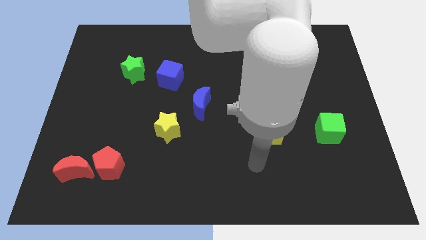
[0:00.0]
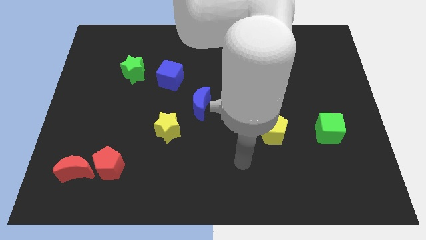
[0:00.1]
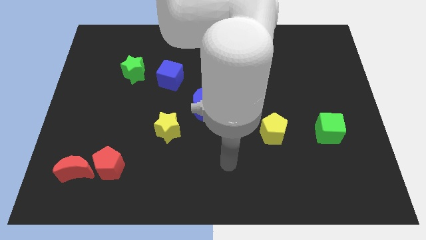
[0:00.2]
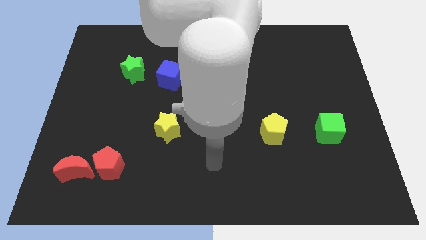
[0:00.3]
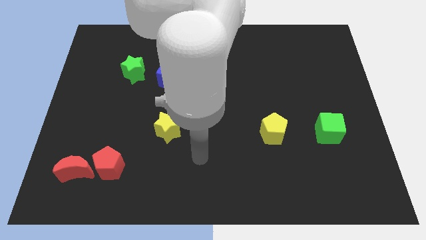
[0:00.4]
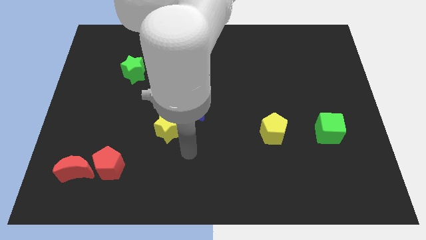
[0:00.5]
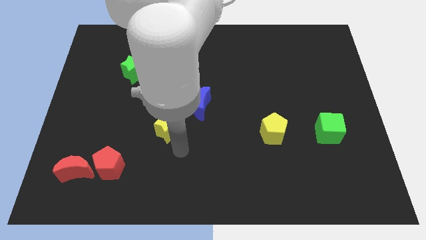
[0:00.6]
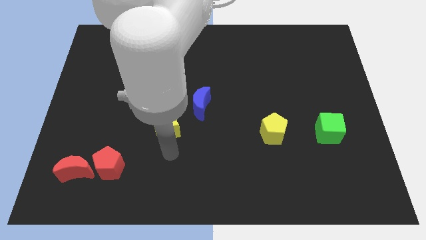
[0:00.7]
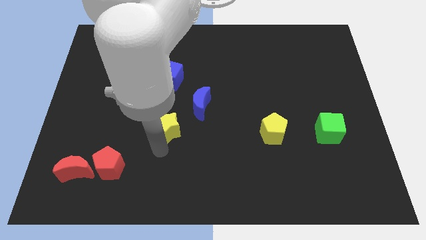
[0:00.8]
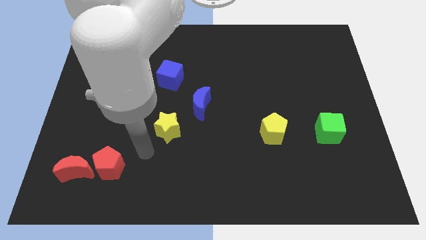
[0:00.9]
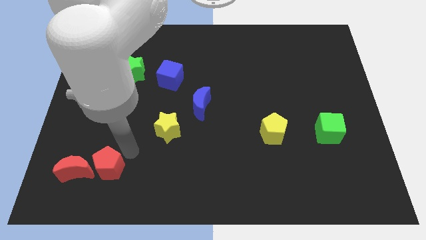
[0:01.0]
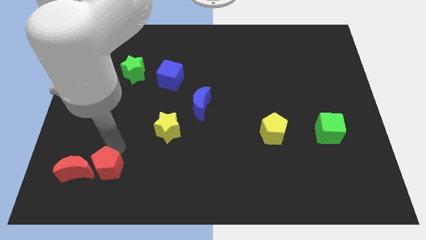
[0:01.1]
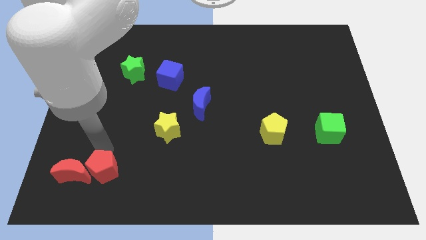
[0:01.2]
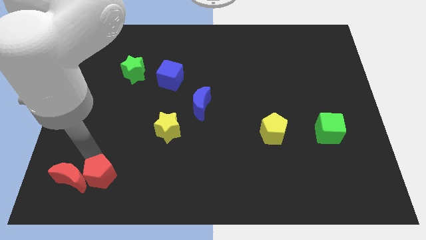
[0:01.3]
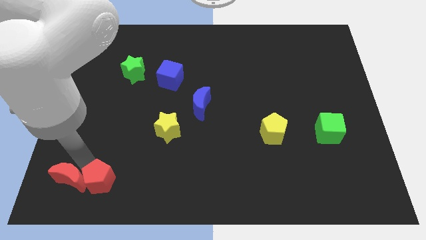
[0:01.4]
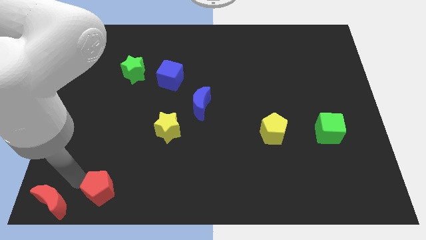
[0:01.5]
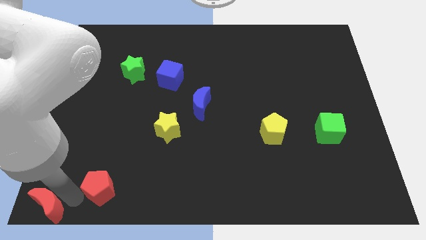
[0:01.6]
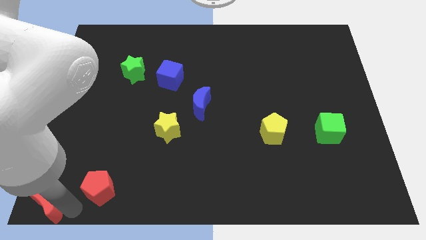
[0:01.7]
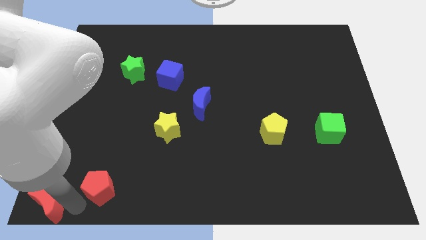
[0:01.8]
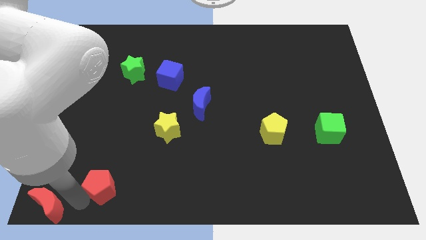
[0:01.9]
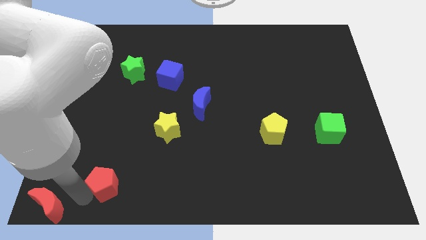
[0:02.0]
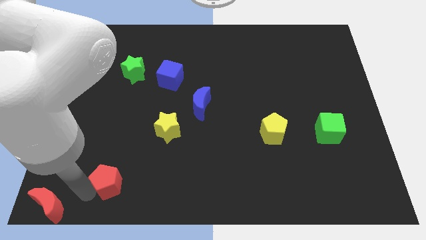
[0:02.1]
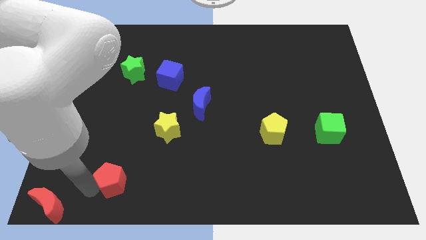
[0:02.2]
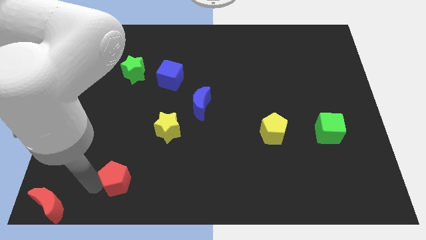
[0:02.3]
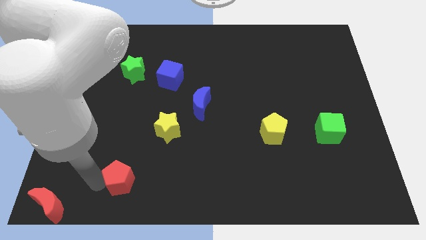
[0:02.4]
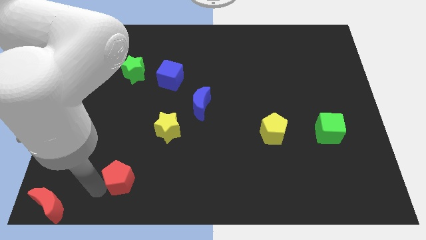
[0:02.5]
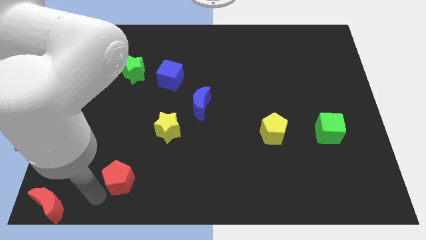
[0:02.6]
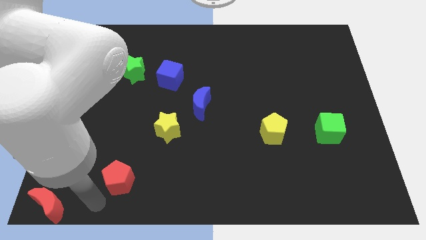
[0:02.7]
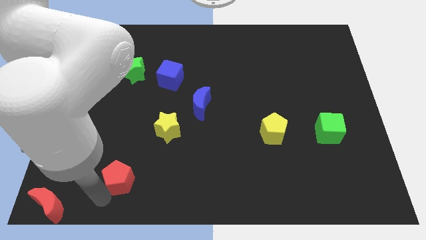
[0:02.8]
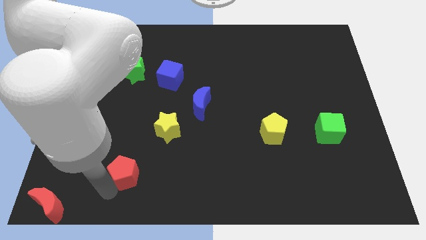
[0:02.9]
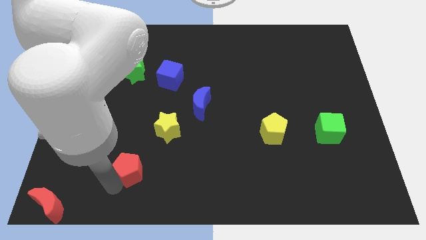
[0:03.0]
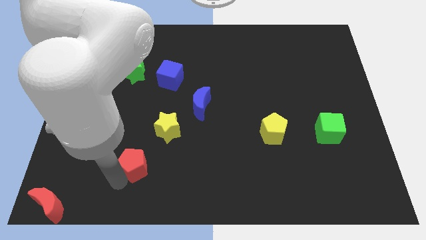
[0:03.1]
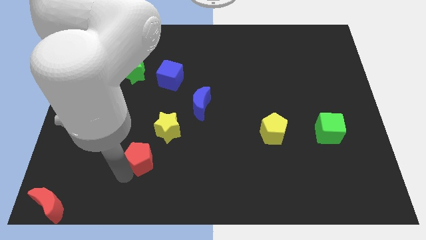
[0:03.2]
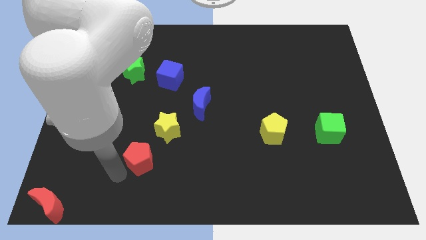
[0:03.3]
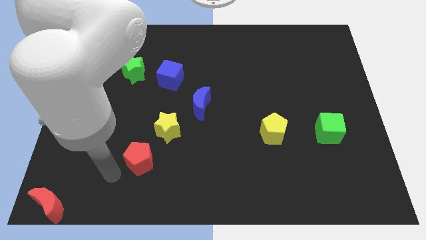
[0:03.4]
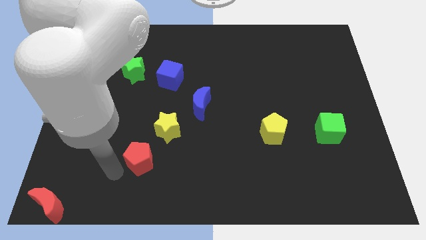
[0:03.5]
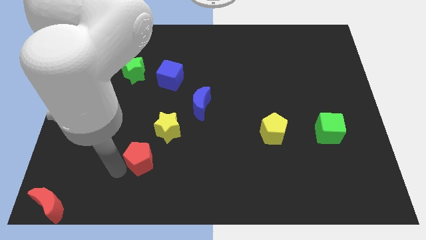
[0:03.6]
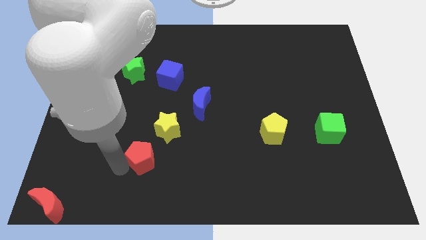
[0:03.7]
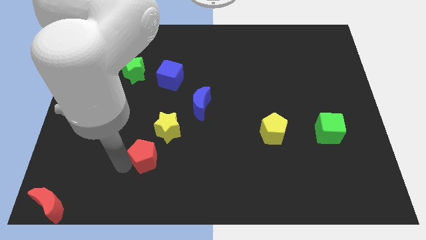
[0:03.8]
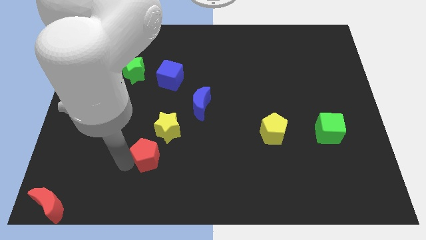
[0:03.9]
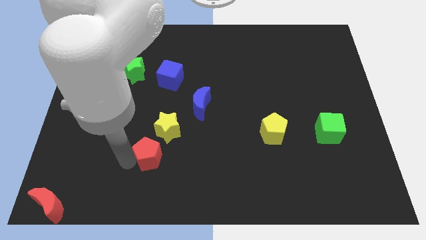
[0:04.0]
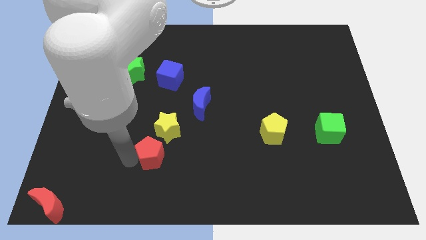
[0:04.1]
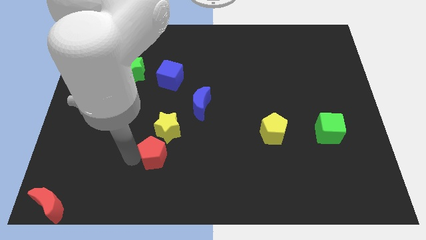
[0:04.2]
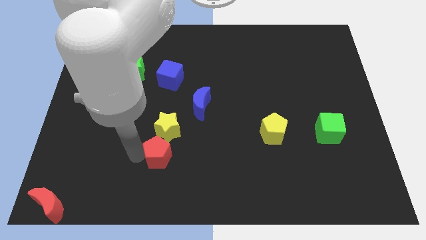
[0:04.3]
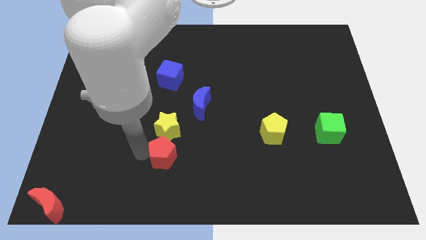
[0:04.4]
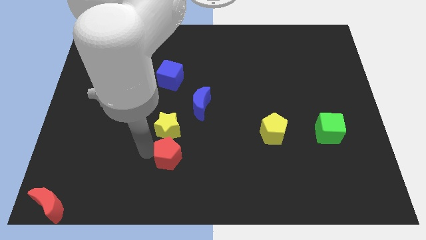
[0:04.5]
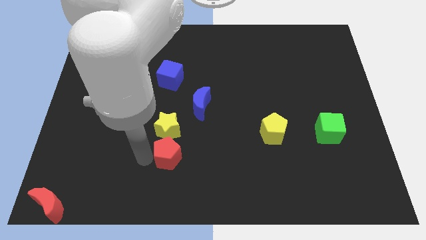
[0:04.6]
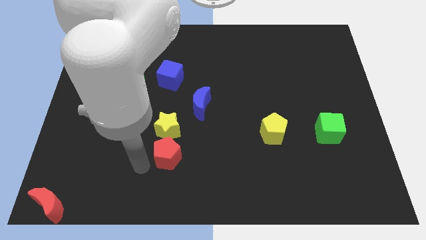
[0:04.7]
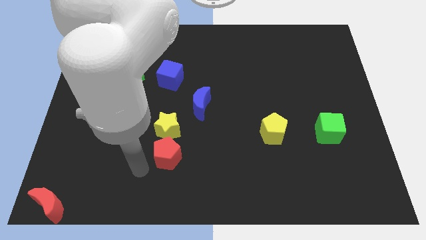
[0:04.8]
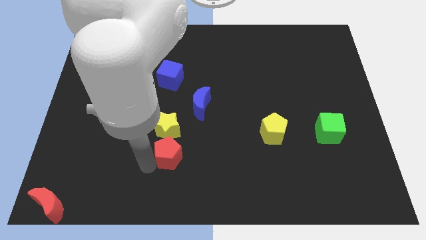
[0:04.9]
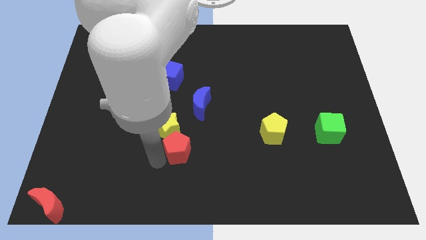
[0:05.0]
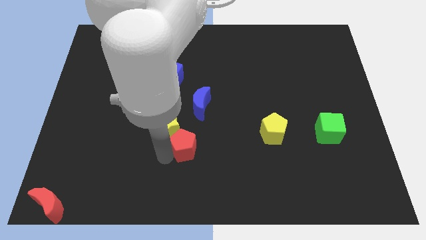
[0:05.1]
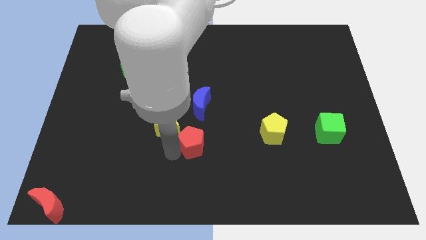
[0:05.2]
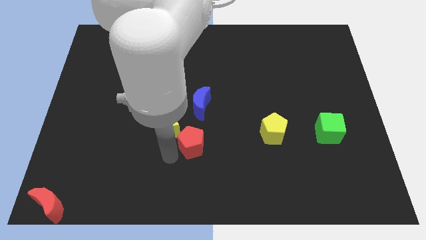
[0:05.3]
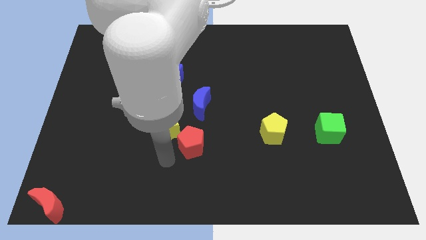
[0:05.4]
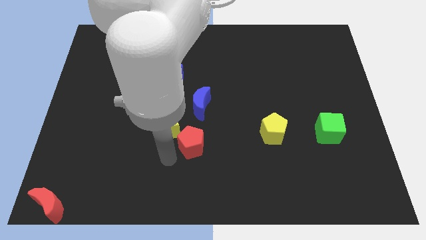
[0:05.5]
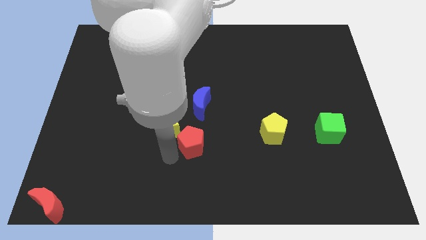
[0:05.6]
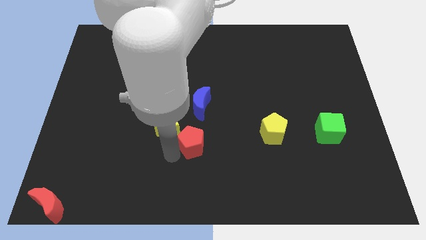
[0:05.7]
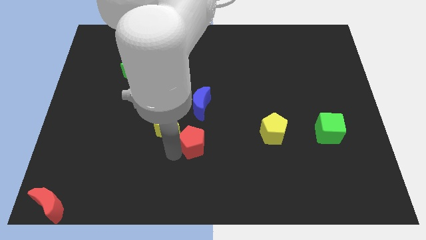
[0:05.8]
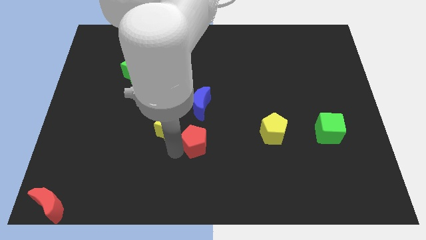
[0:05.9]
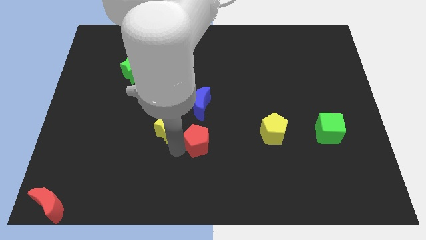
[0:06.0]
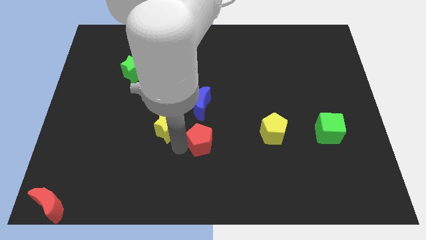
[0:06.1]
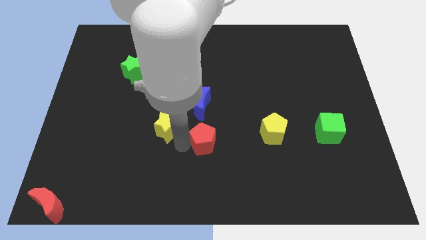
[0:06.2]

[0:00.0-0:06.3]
put the red pentagon just left of the yellow pentagon
